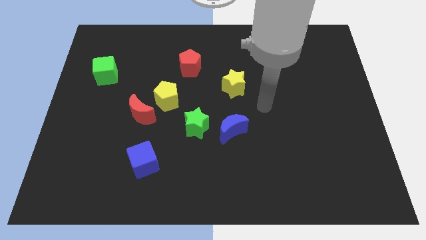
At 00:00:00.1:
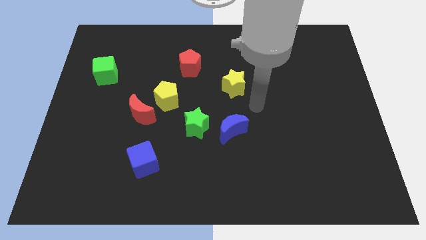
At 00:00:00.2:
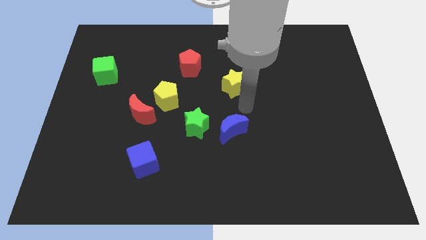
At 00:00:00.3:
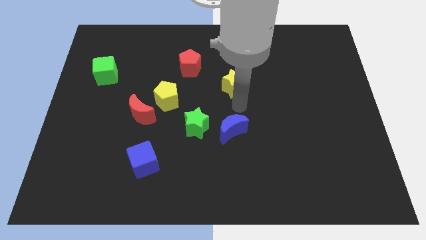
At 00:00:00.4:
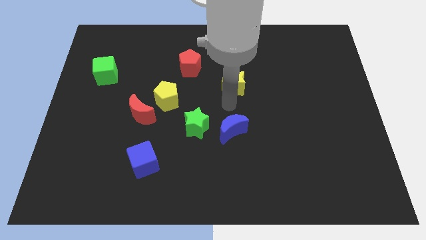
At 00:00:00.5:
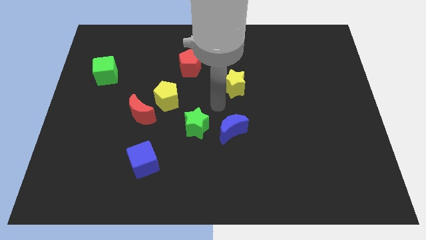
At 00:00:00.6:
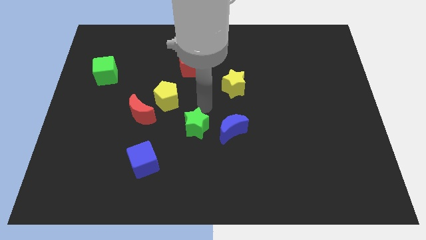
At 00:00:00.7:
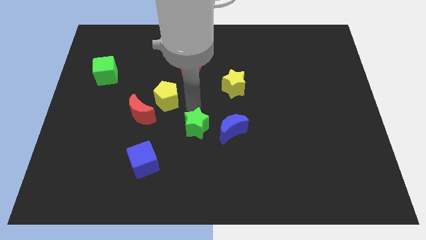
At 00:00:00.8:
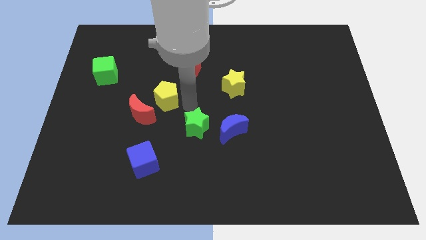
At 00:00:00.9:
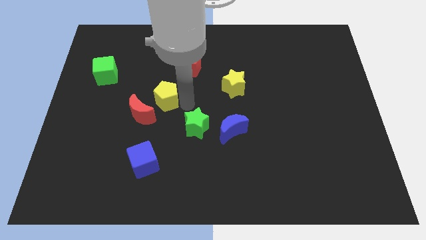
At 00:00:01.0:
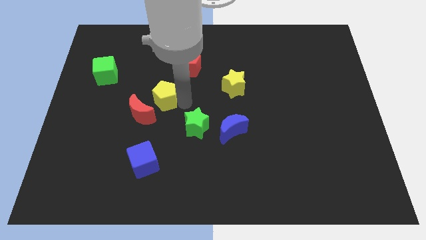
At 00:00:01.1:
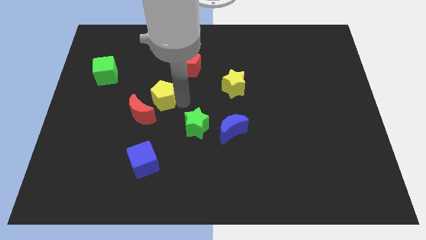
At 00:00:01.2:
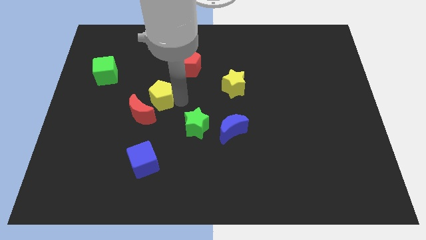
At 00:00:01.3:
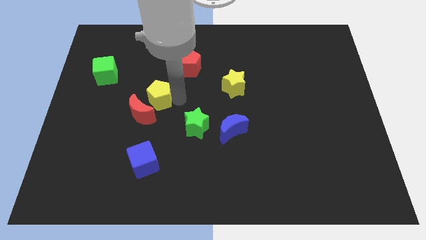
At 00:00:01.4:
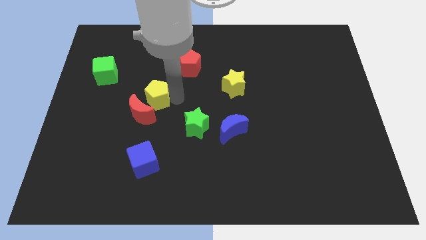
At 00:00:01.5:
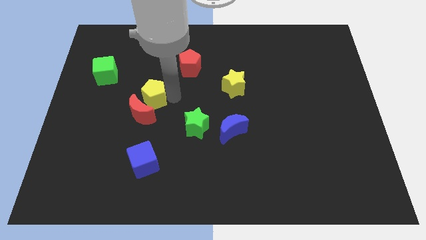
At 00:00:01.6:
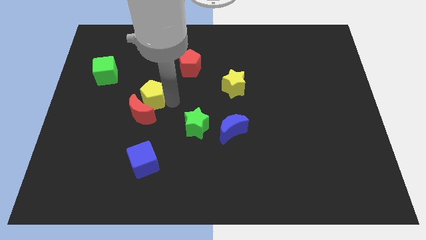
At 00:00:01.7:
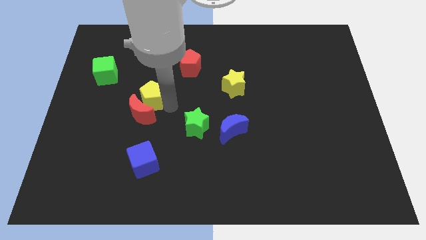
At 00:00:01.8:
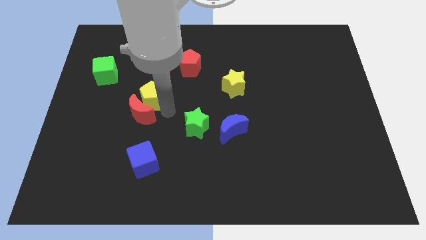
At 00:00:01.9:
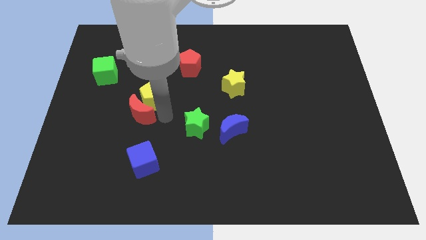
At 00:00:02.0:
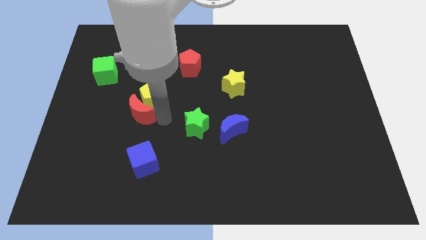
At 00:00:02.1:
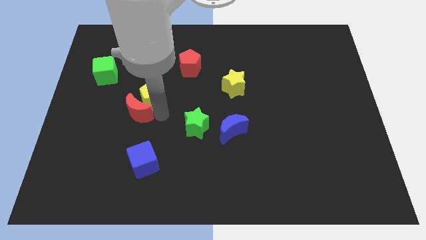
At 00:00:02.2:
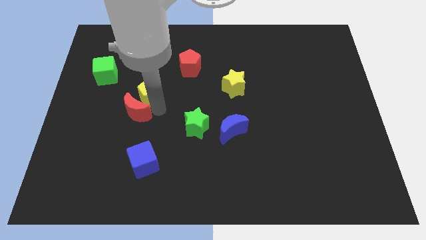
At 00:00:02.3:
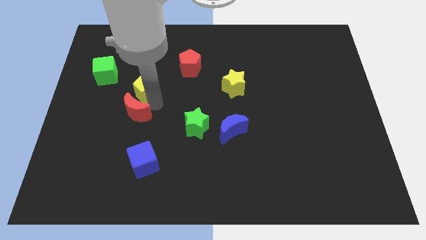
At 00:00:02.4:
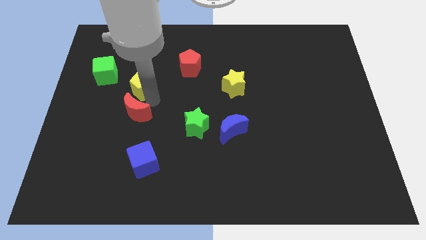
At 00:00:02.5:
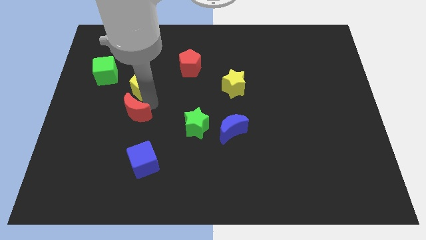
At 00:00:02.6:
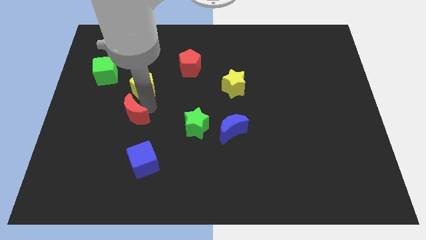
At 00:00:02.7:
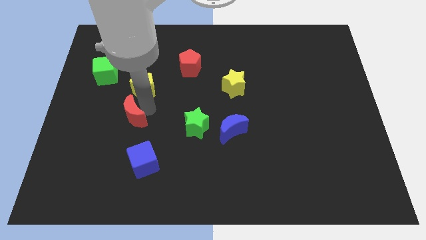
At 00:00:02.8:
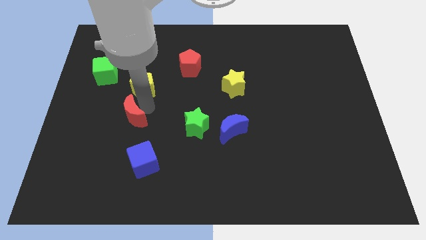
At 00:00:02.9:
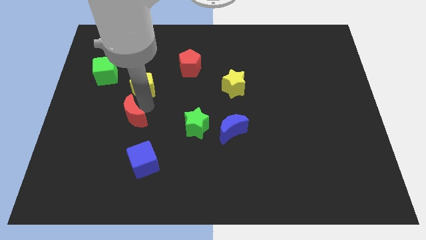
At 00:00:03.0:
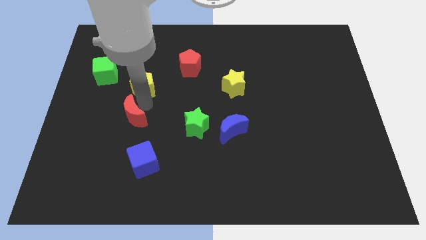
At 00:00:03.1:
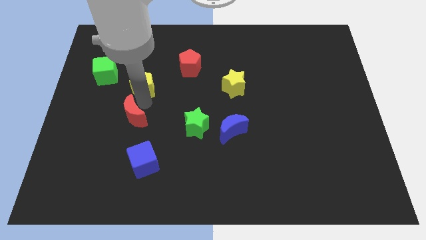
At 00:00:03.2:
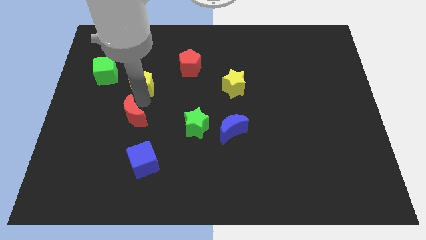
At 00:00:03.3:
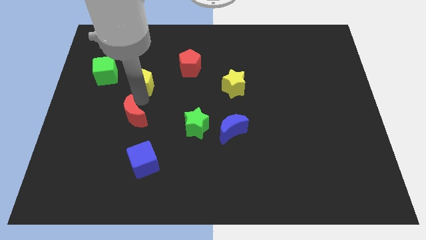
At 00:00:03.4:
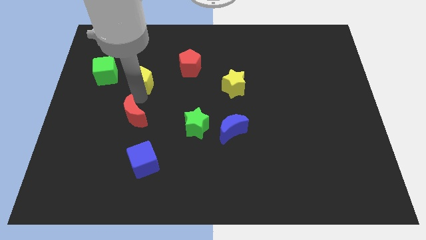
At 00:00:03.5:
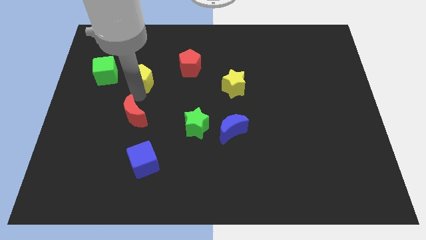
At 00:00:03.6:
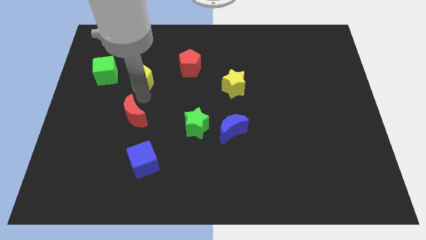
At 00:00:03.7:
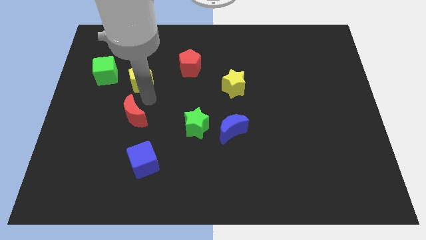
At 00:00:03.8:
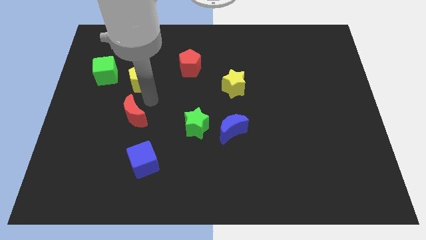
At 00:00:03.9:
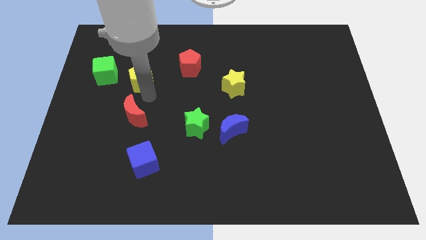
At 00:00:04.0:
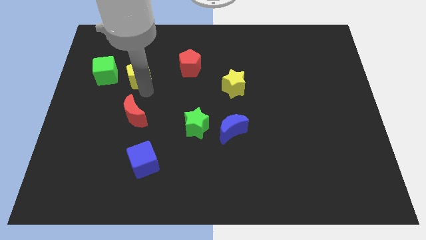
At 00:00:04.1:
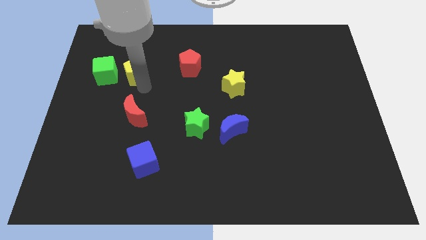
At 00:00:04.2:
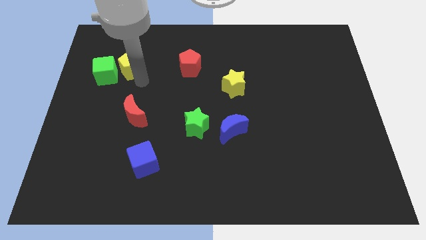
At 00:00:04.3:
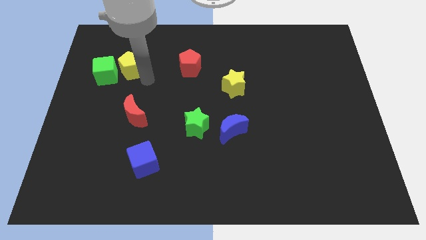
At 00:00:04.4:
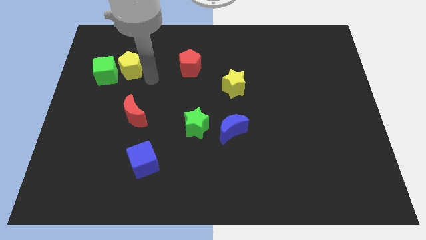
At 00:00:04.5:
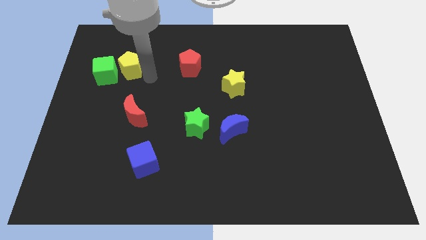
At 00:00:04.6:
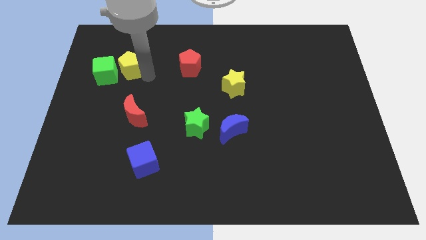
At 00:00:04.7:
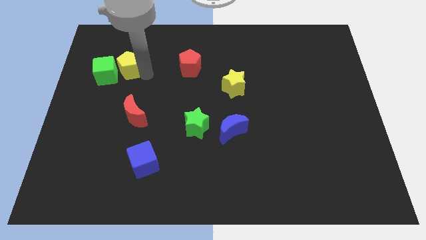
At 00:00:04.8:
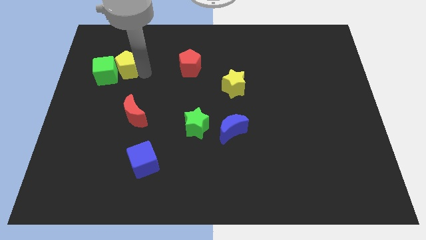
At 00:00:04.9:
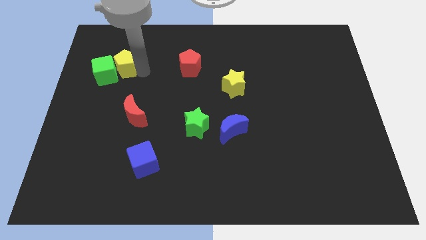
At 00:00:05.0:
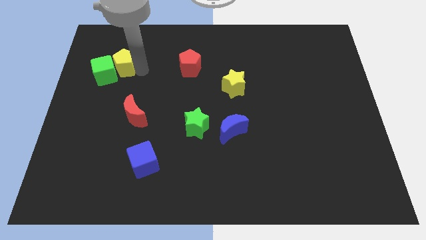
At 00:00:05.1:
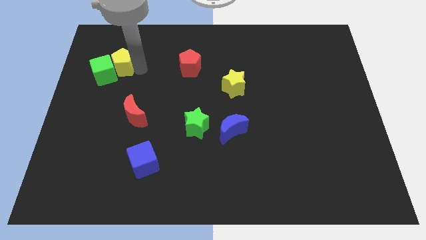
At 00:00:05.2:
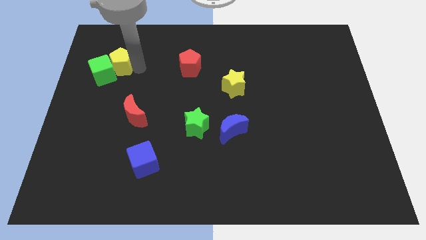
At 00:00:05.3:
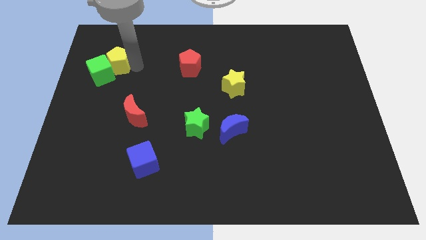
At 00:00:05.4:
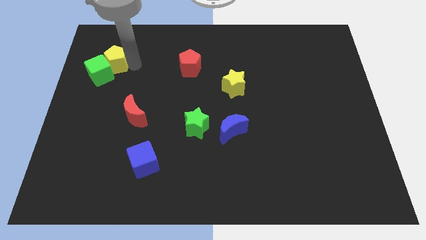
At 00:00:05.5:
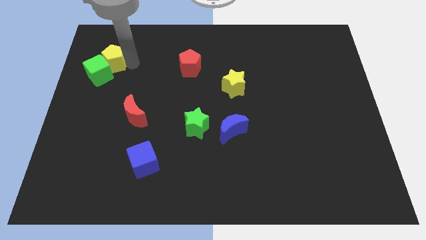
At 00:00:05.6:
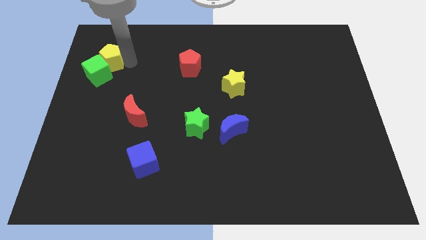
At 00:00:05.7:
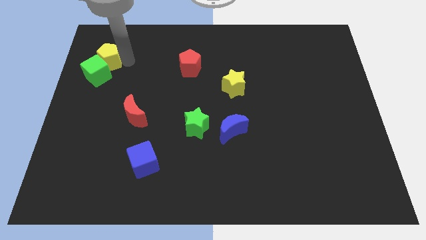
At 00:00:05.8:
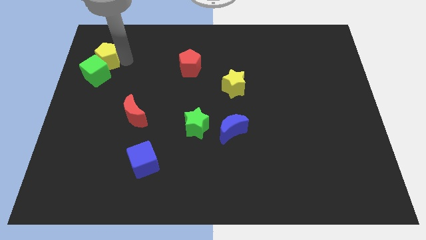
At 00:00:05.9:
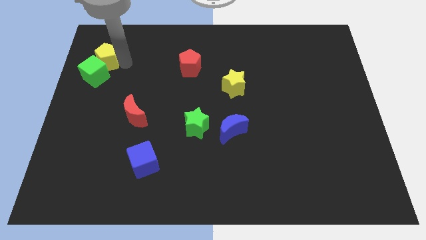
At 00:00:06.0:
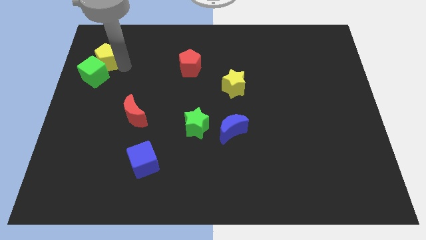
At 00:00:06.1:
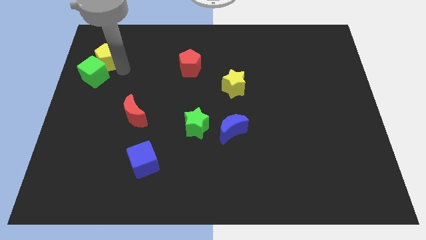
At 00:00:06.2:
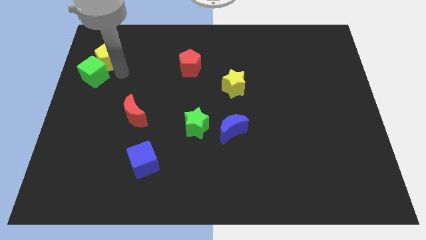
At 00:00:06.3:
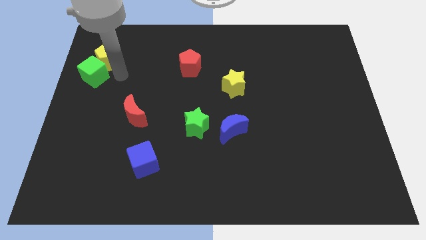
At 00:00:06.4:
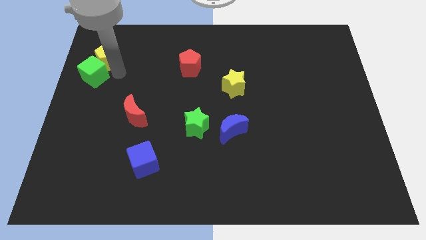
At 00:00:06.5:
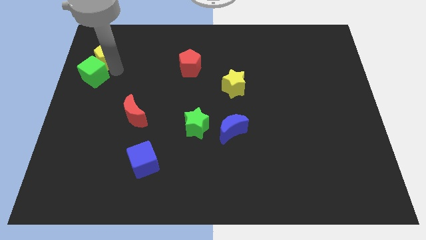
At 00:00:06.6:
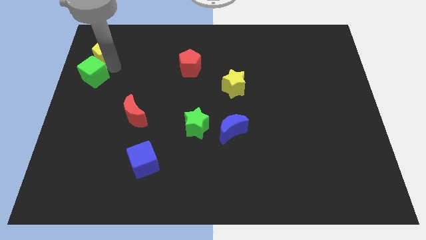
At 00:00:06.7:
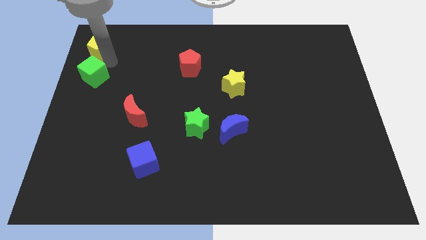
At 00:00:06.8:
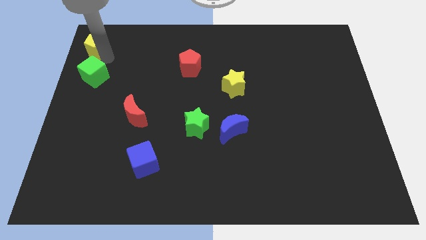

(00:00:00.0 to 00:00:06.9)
move the yellow pentagon to the top left of the board

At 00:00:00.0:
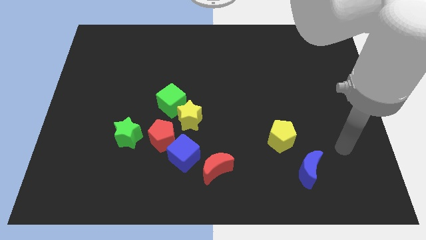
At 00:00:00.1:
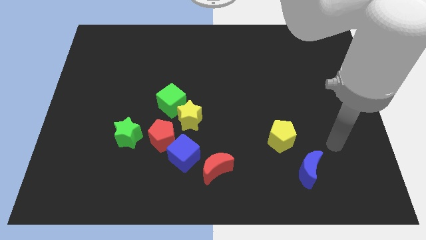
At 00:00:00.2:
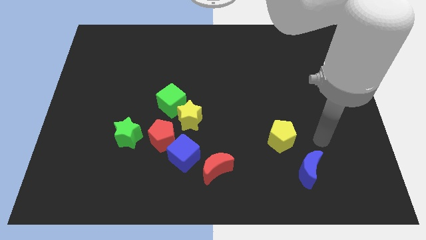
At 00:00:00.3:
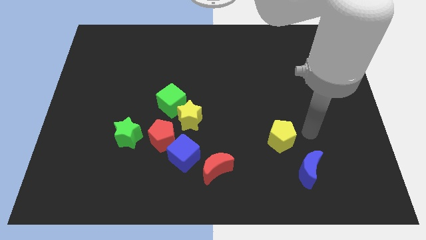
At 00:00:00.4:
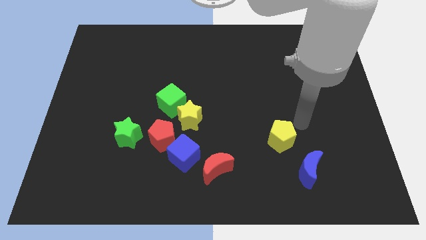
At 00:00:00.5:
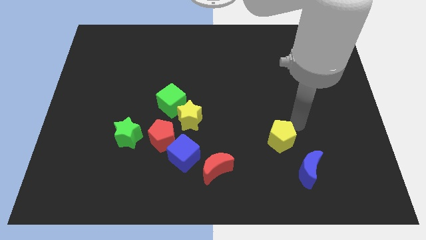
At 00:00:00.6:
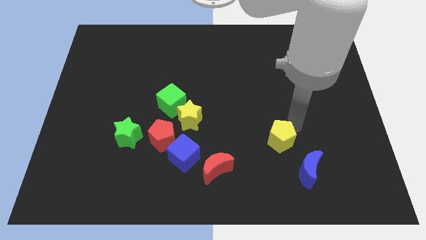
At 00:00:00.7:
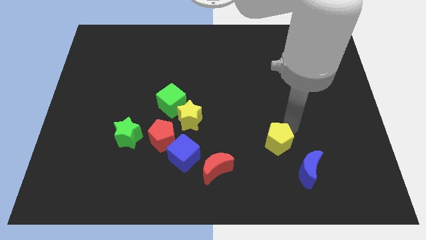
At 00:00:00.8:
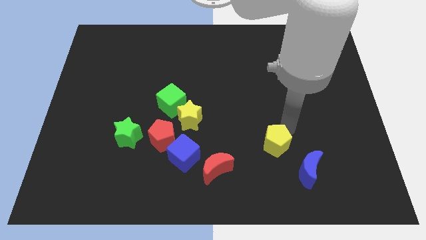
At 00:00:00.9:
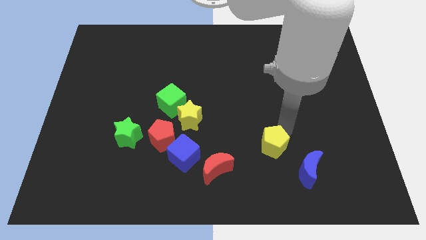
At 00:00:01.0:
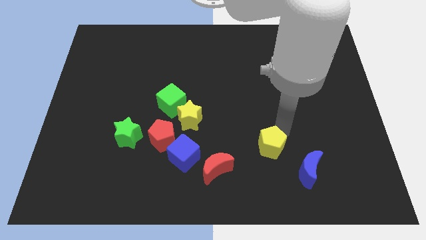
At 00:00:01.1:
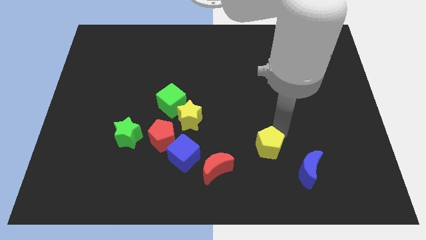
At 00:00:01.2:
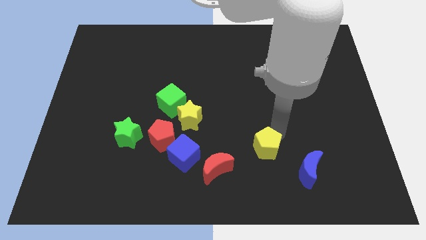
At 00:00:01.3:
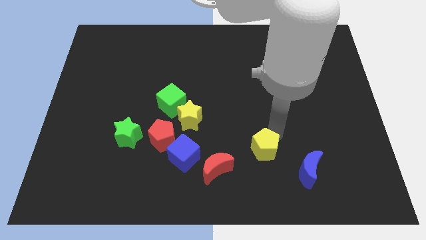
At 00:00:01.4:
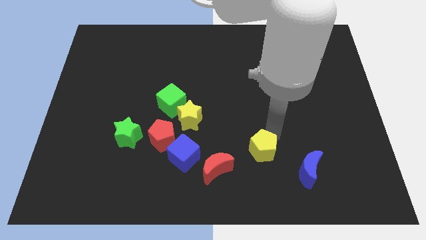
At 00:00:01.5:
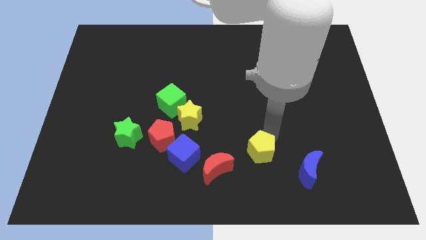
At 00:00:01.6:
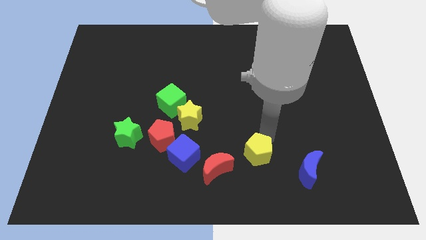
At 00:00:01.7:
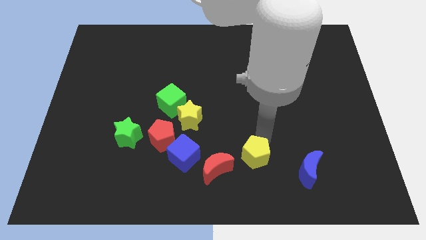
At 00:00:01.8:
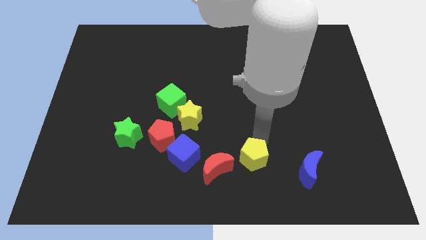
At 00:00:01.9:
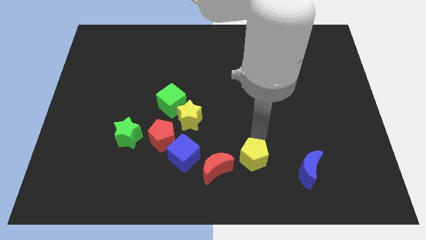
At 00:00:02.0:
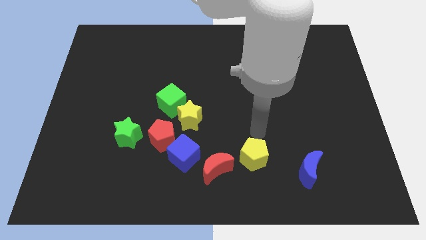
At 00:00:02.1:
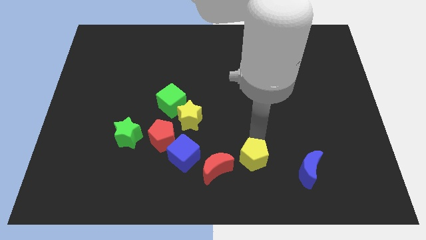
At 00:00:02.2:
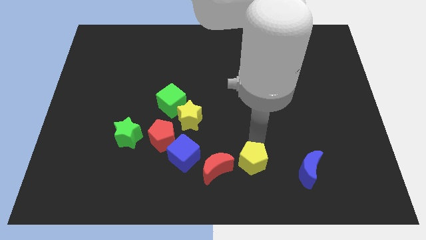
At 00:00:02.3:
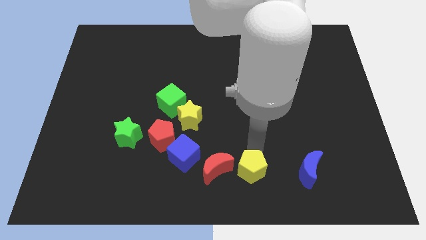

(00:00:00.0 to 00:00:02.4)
push the yellow pentagon to the bottom side
